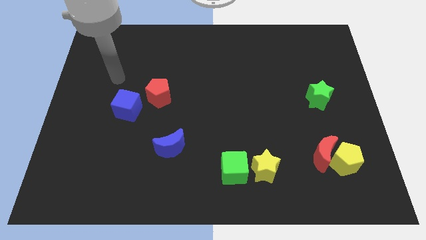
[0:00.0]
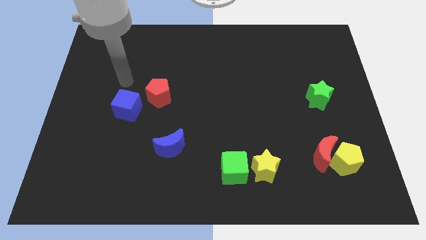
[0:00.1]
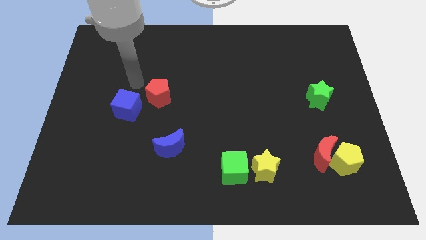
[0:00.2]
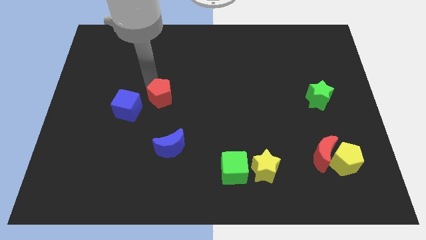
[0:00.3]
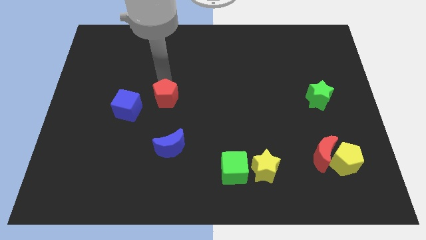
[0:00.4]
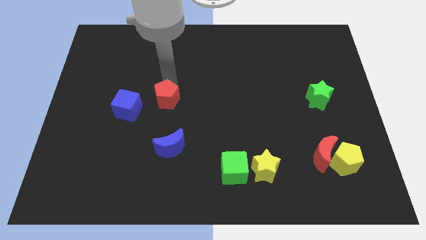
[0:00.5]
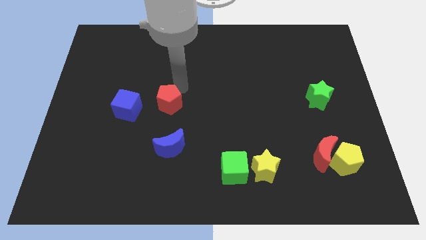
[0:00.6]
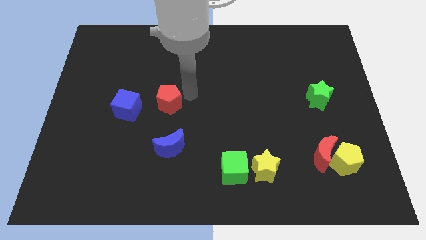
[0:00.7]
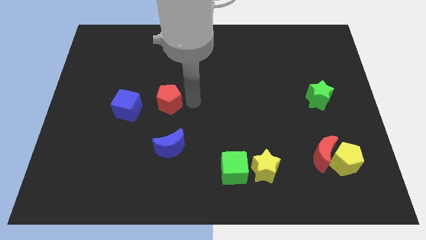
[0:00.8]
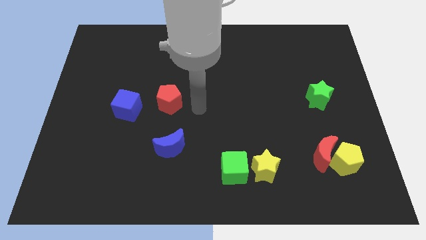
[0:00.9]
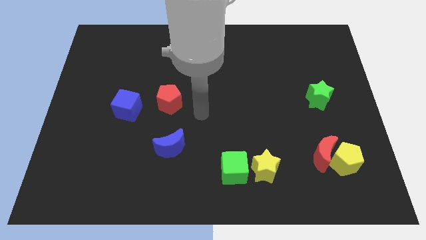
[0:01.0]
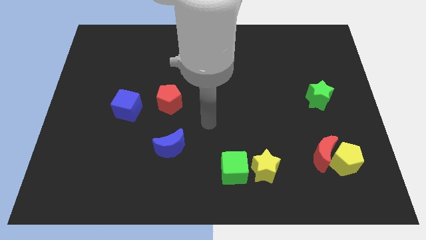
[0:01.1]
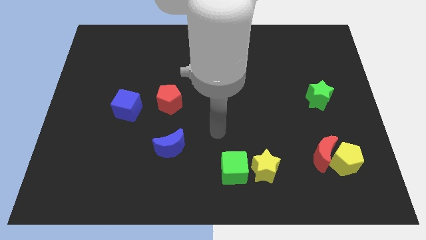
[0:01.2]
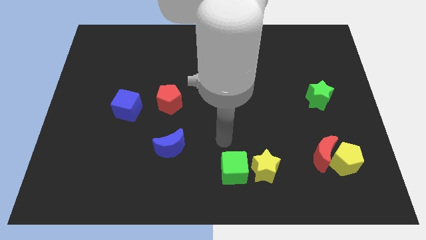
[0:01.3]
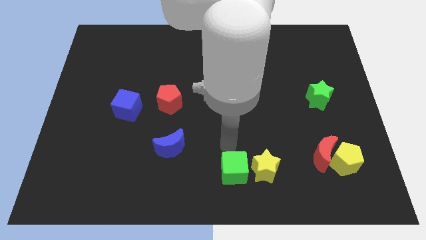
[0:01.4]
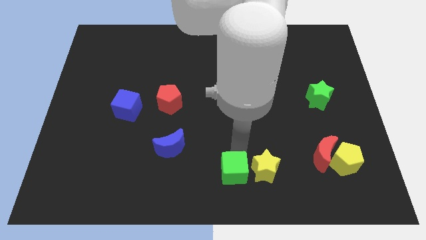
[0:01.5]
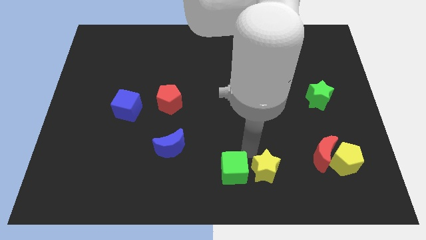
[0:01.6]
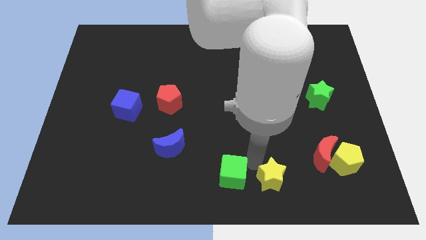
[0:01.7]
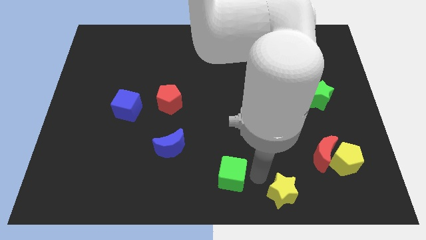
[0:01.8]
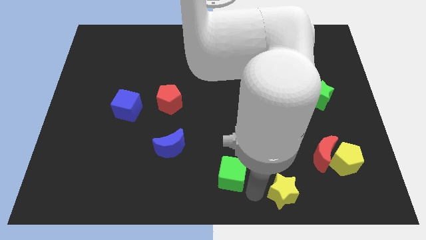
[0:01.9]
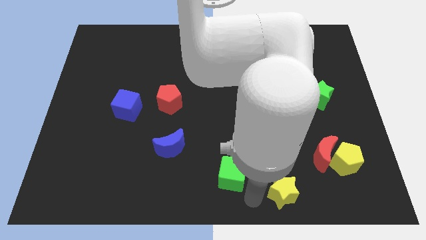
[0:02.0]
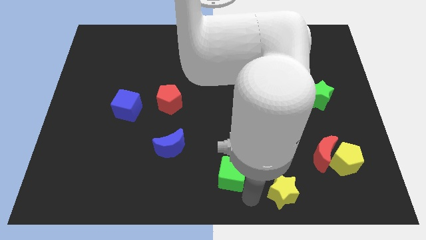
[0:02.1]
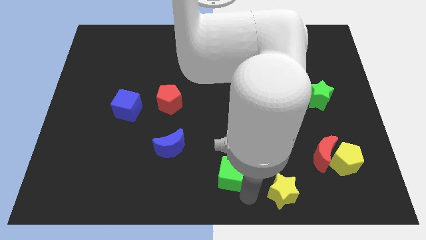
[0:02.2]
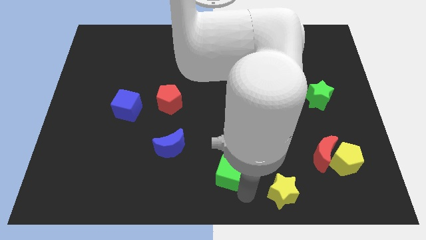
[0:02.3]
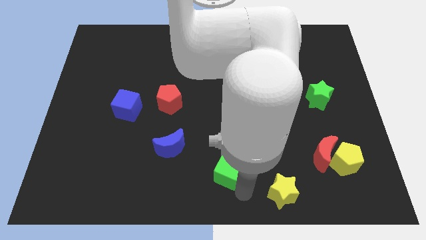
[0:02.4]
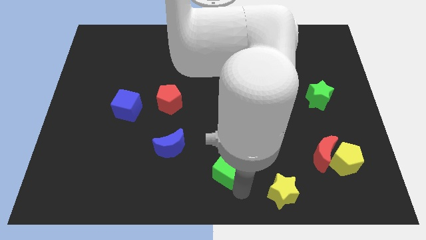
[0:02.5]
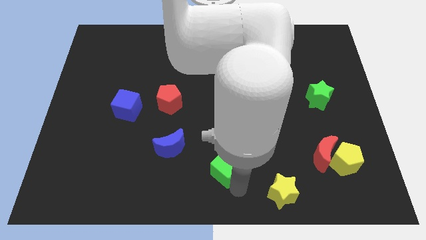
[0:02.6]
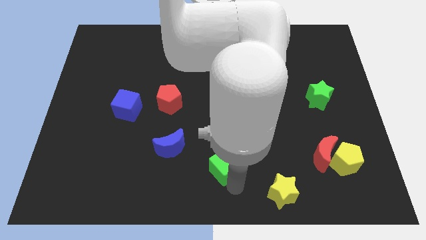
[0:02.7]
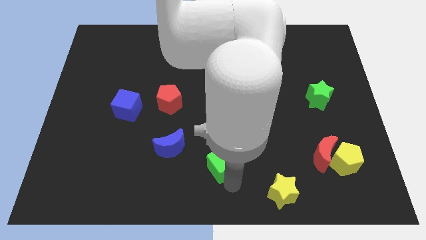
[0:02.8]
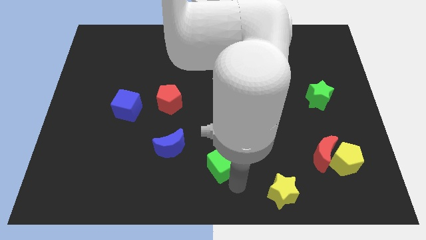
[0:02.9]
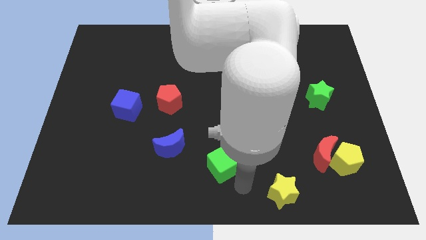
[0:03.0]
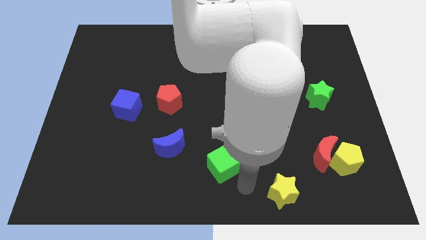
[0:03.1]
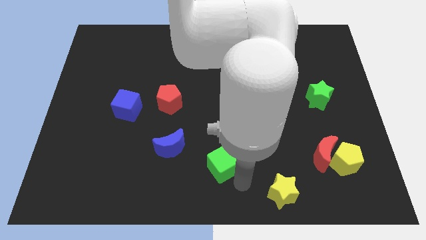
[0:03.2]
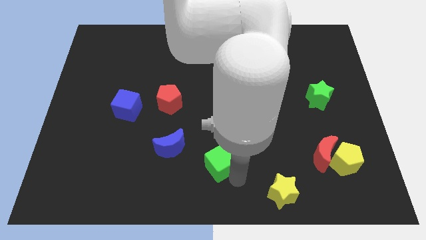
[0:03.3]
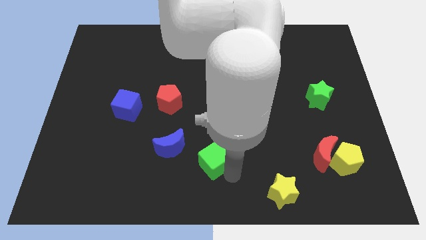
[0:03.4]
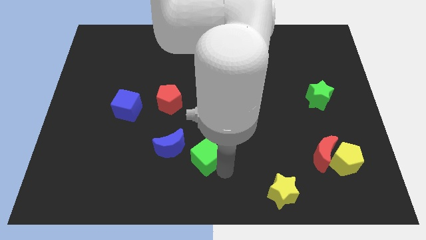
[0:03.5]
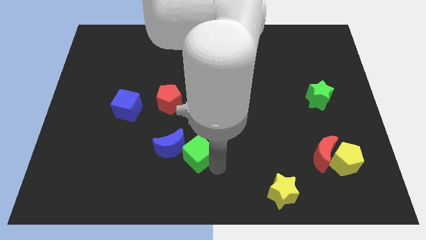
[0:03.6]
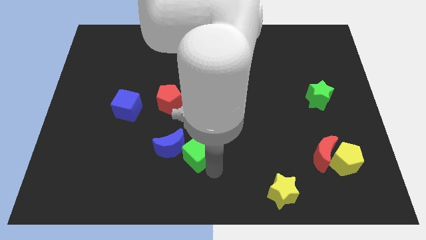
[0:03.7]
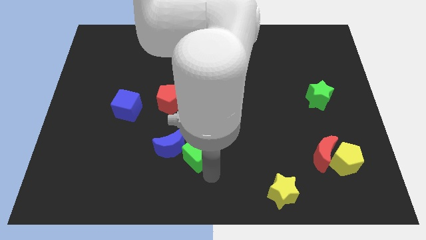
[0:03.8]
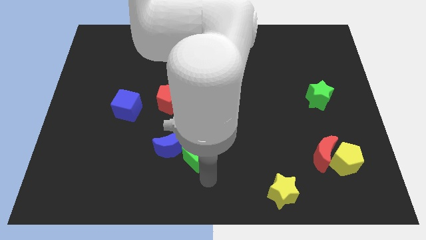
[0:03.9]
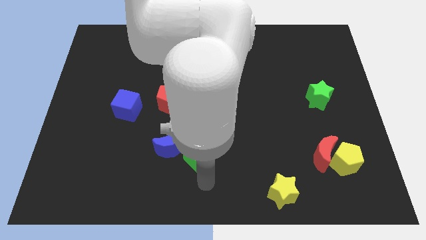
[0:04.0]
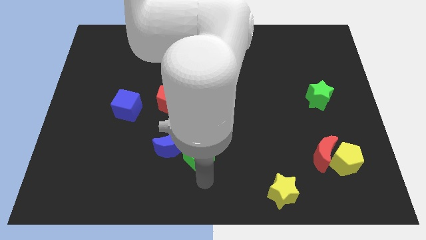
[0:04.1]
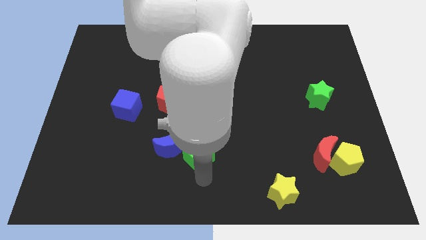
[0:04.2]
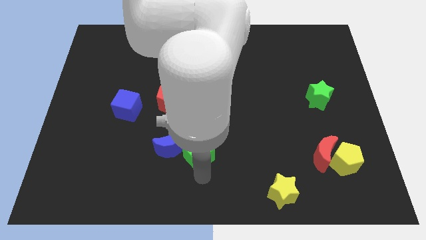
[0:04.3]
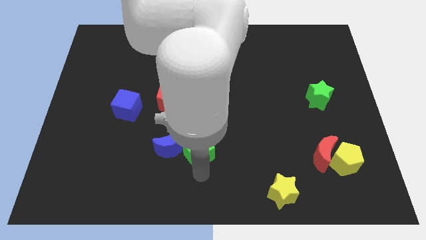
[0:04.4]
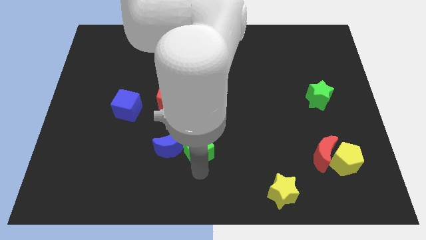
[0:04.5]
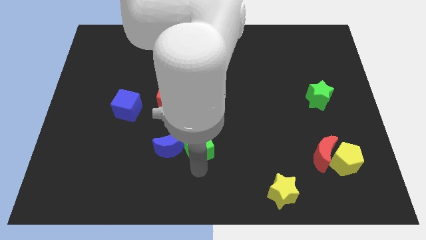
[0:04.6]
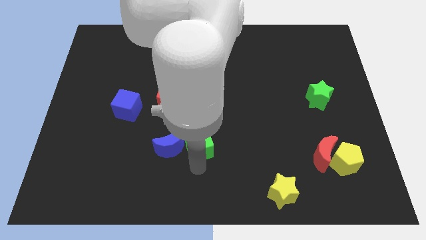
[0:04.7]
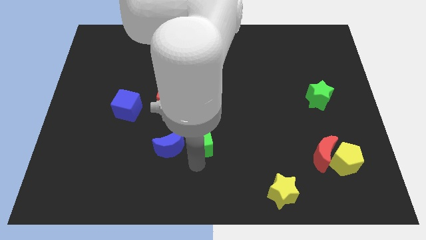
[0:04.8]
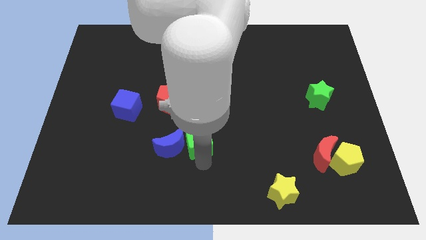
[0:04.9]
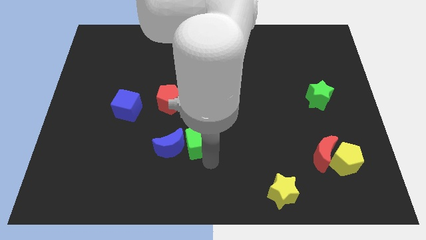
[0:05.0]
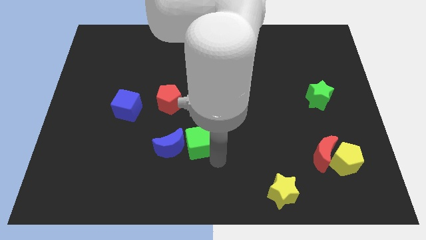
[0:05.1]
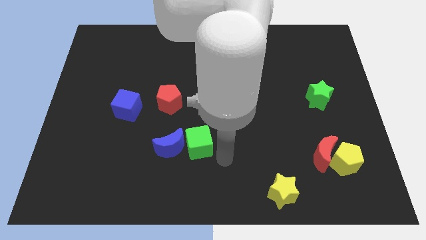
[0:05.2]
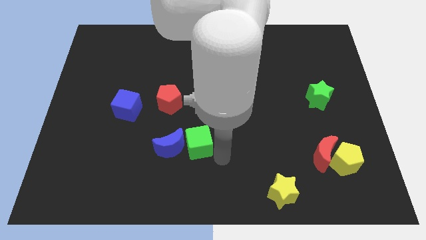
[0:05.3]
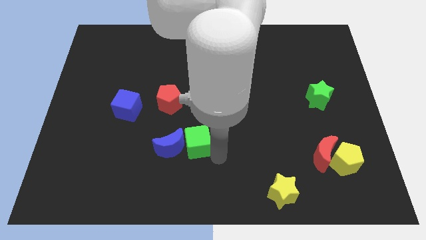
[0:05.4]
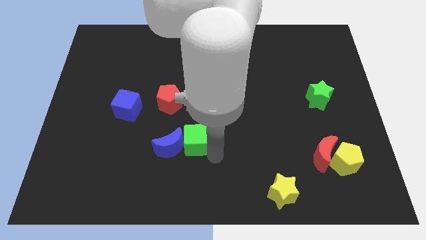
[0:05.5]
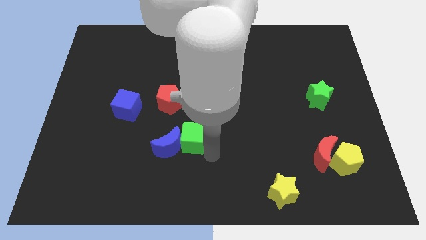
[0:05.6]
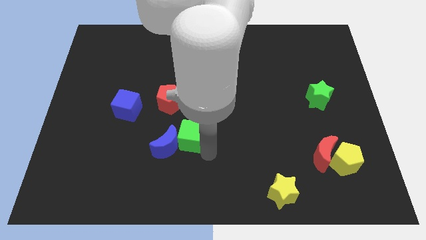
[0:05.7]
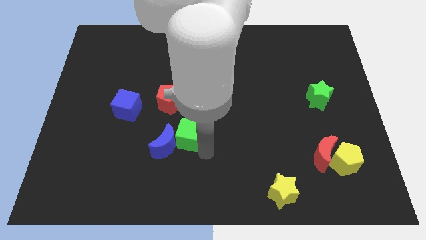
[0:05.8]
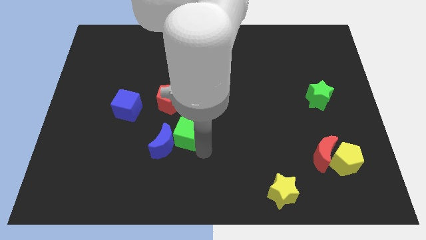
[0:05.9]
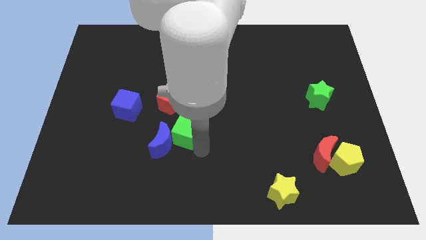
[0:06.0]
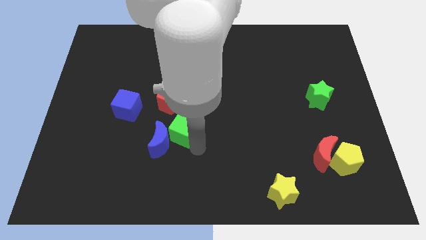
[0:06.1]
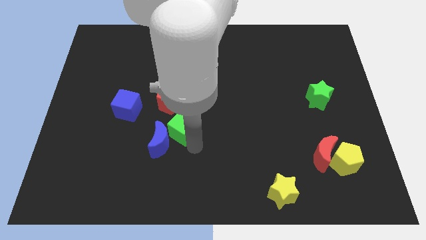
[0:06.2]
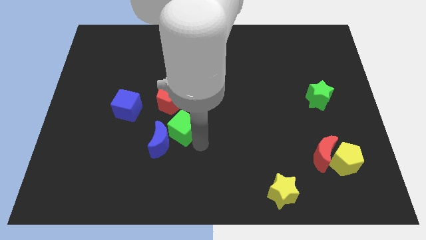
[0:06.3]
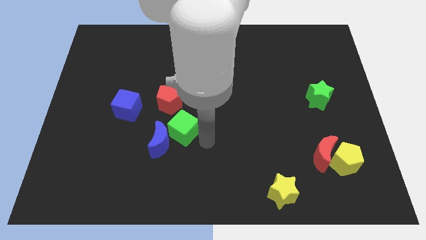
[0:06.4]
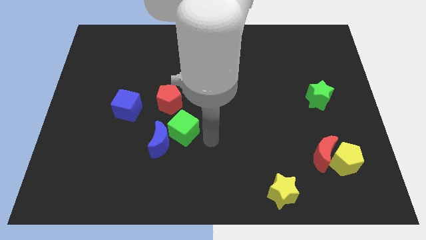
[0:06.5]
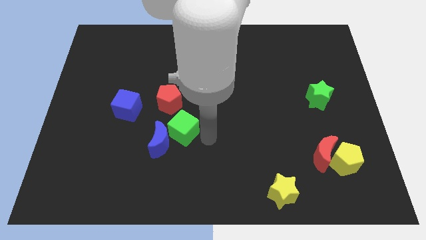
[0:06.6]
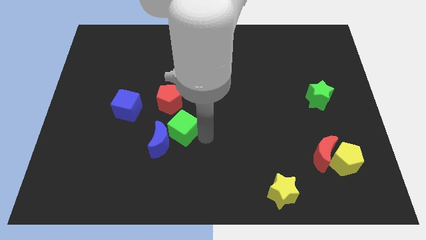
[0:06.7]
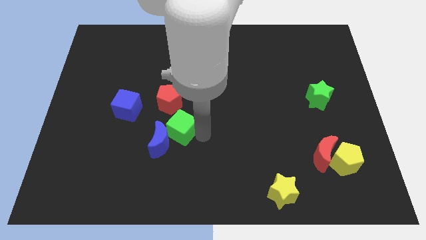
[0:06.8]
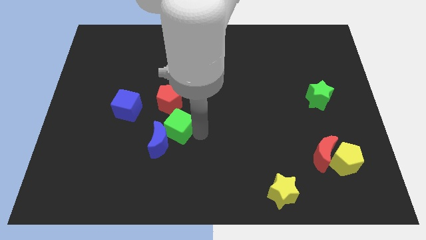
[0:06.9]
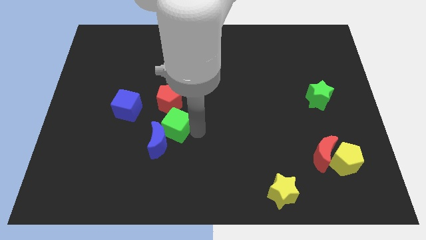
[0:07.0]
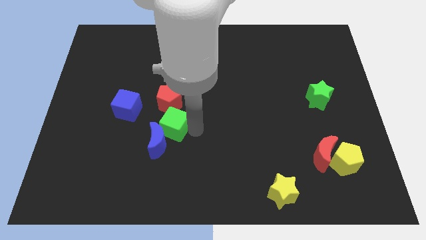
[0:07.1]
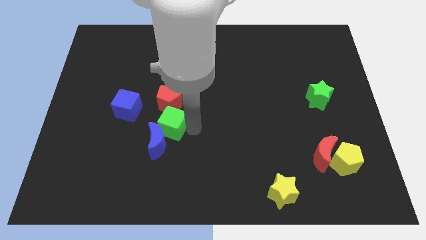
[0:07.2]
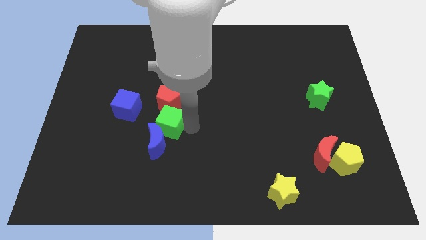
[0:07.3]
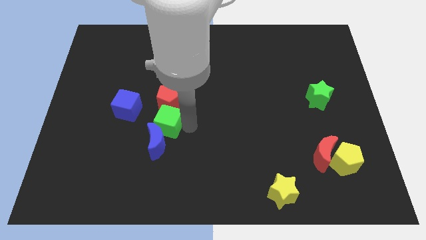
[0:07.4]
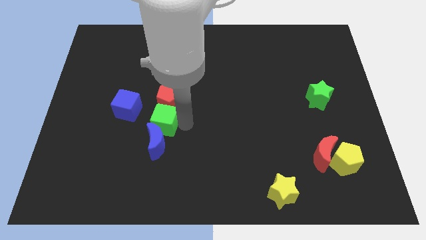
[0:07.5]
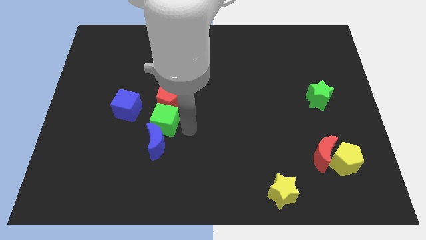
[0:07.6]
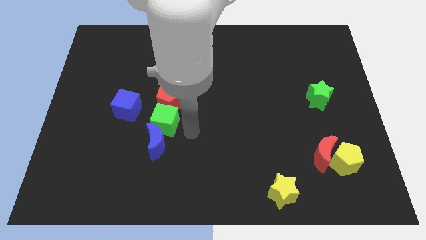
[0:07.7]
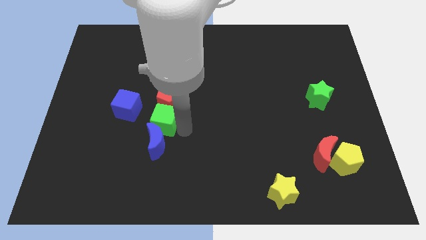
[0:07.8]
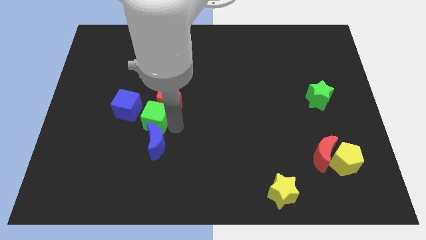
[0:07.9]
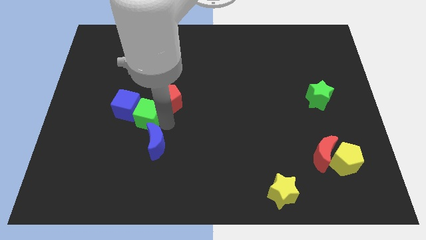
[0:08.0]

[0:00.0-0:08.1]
put the green cube to the blue cube
